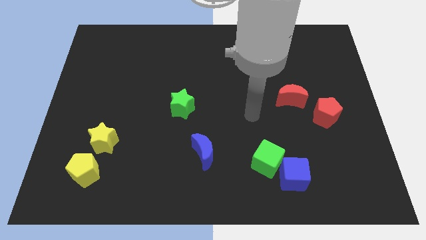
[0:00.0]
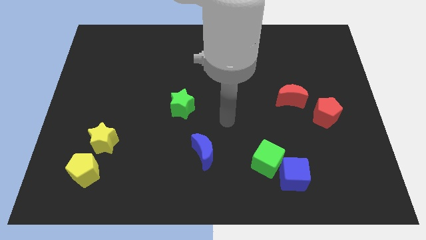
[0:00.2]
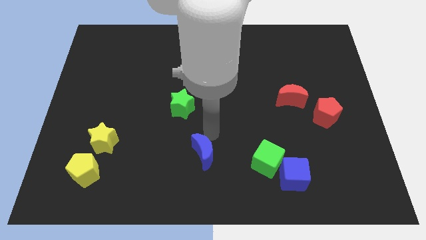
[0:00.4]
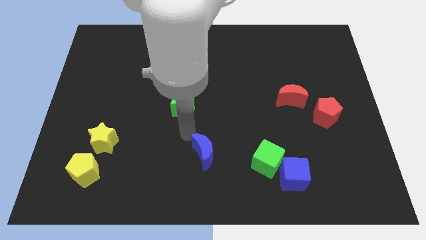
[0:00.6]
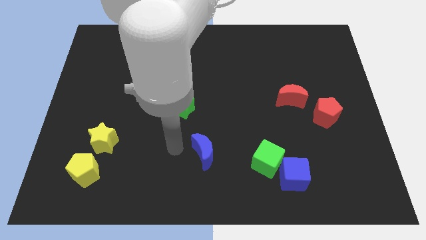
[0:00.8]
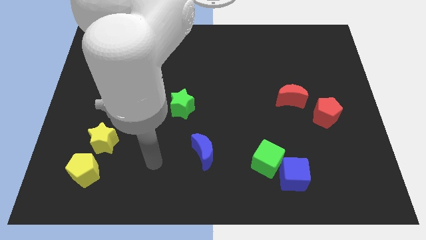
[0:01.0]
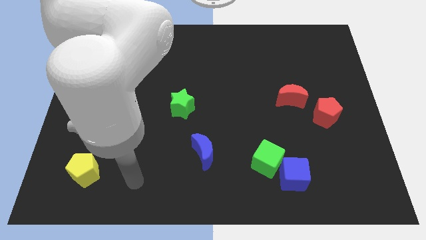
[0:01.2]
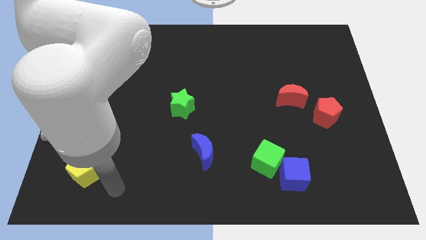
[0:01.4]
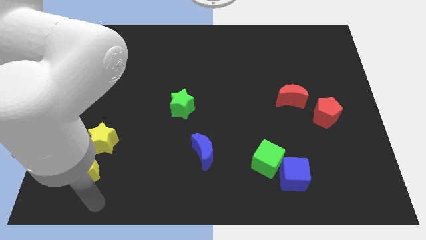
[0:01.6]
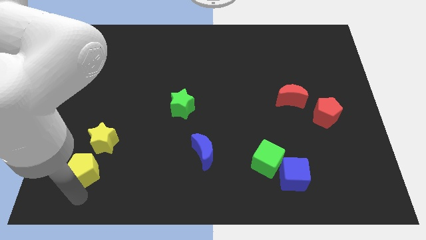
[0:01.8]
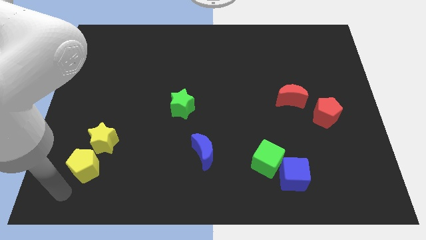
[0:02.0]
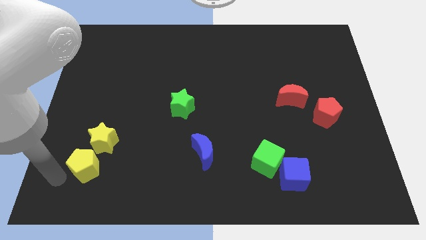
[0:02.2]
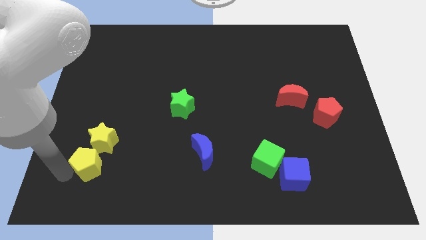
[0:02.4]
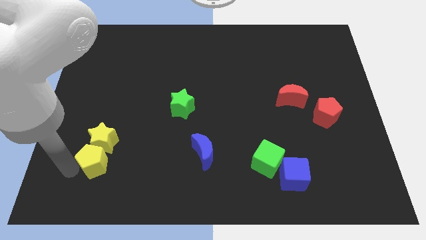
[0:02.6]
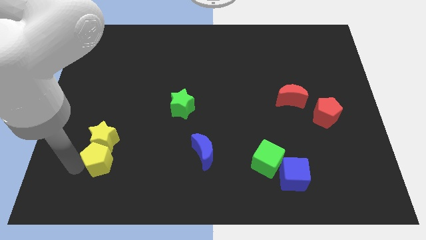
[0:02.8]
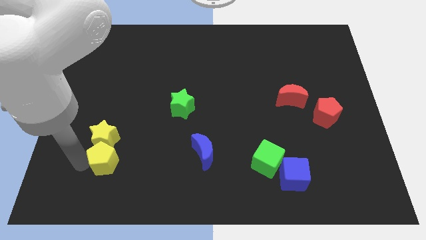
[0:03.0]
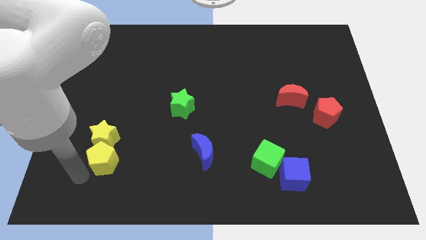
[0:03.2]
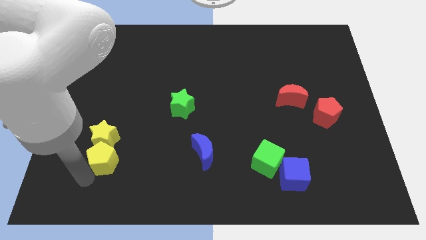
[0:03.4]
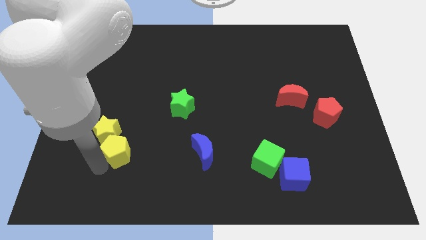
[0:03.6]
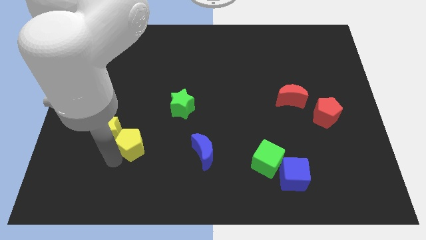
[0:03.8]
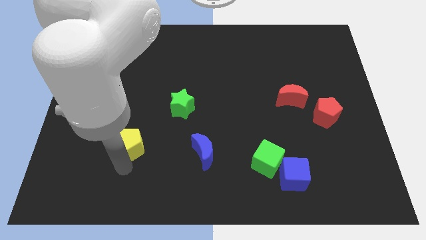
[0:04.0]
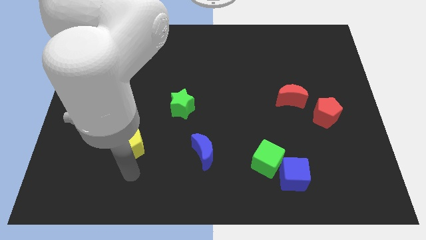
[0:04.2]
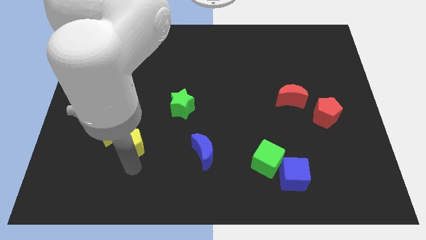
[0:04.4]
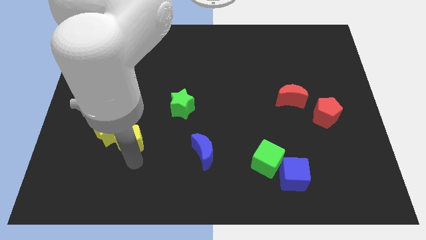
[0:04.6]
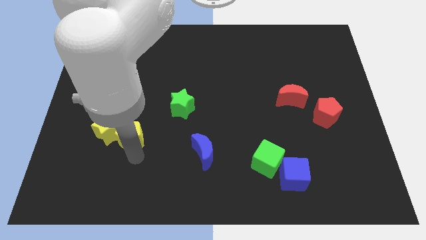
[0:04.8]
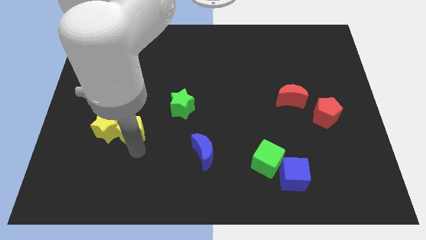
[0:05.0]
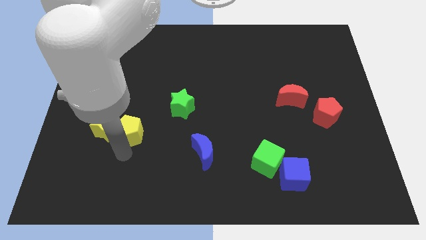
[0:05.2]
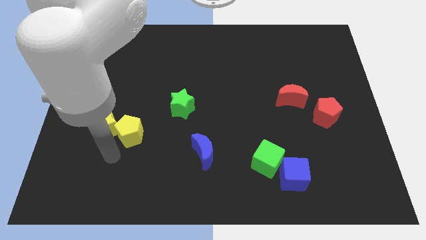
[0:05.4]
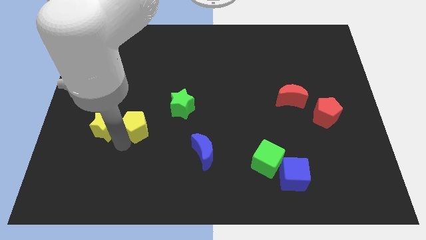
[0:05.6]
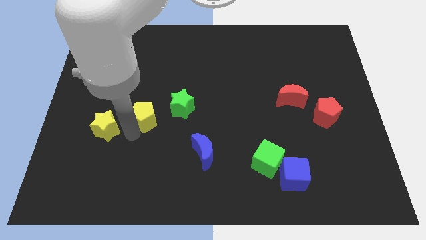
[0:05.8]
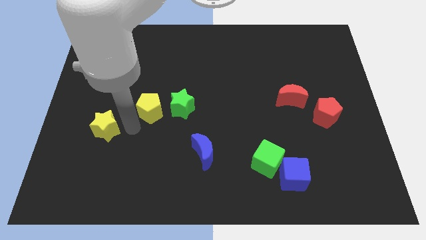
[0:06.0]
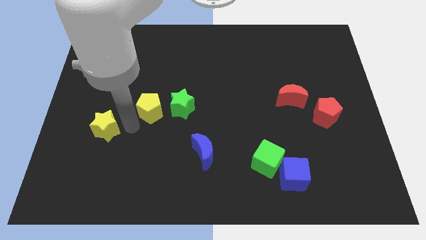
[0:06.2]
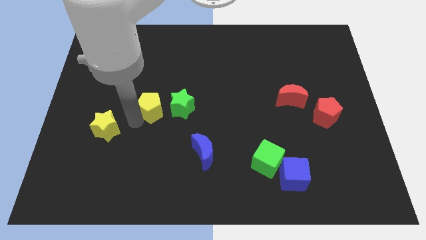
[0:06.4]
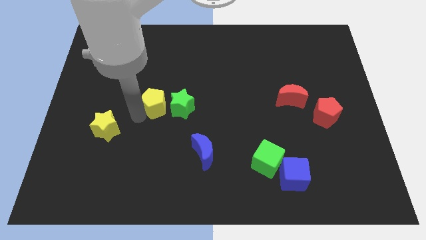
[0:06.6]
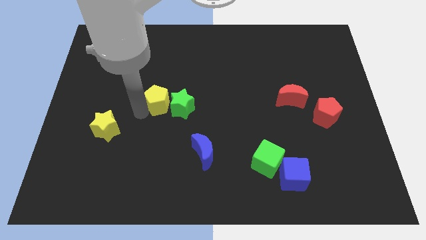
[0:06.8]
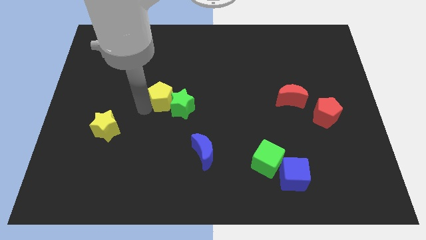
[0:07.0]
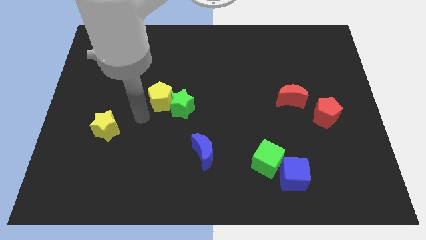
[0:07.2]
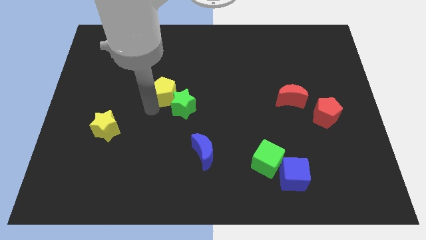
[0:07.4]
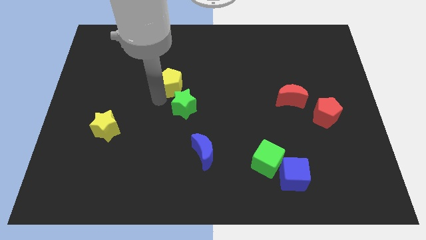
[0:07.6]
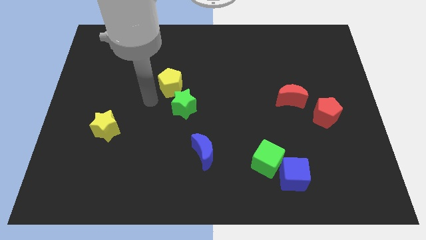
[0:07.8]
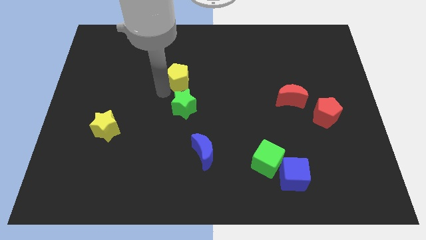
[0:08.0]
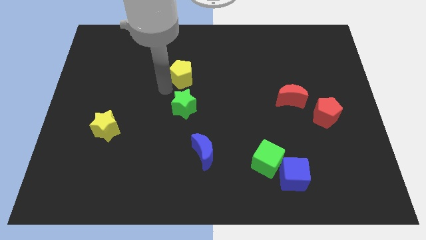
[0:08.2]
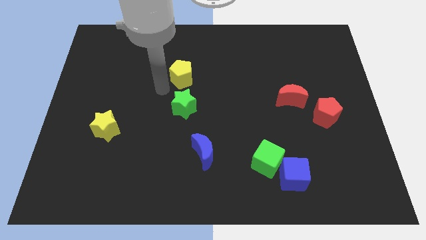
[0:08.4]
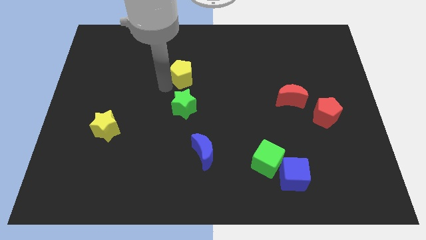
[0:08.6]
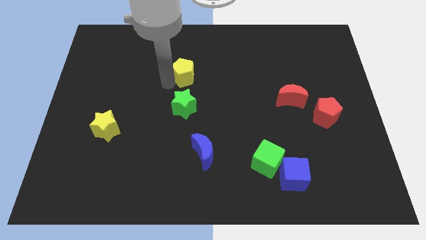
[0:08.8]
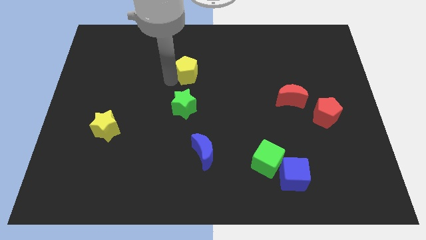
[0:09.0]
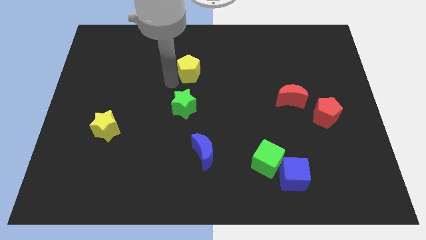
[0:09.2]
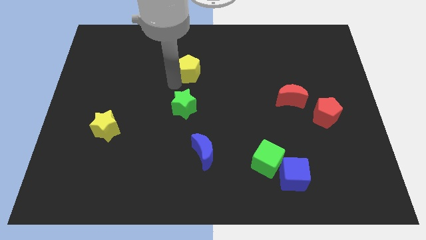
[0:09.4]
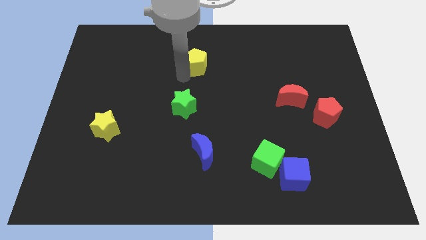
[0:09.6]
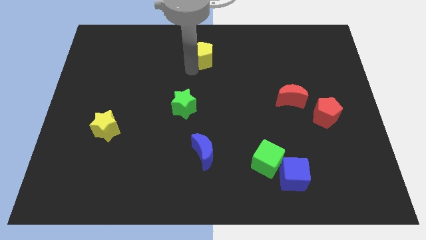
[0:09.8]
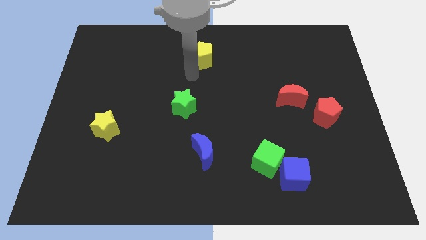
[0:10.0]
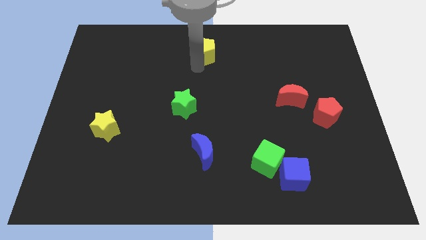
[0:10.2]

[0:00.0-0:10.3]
move the yellow pentagon to the top side

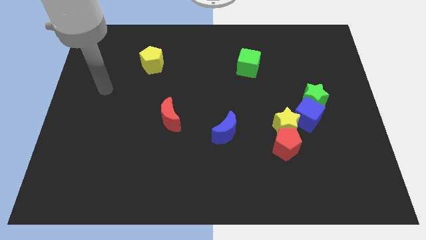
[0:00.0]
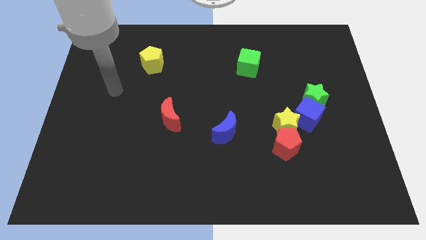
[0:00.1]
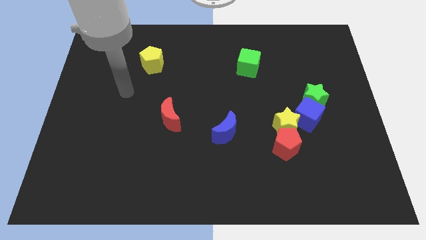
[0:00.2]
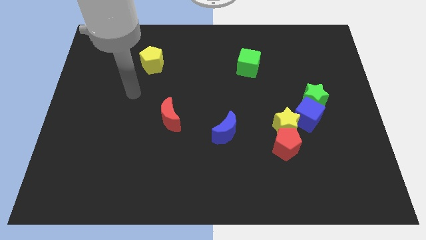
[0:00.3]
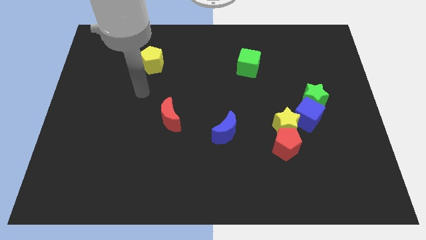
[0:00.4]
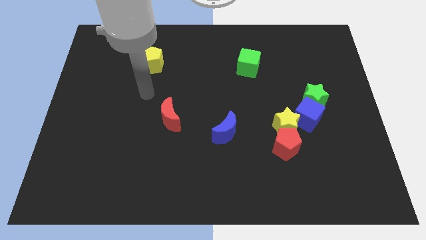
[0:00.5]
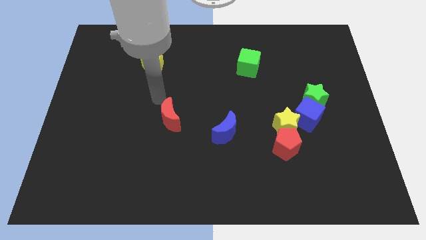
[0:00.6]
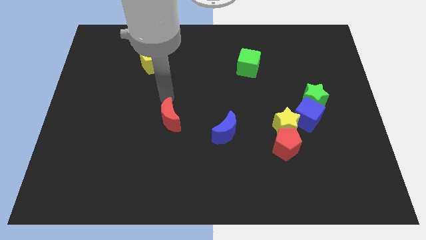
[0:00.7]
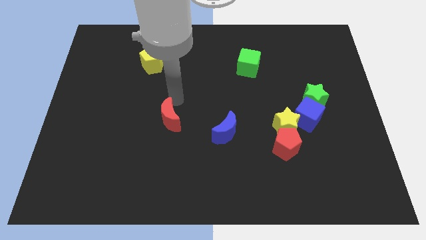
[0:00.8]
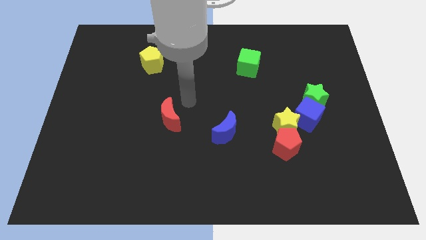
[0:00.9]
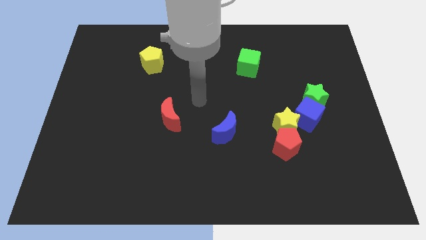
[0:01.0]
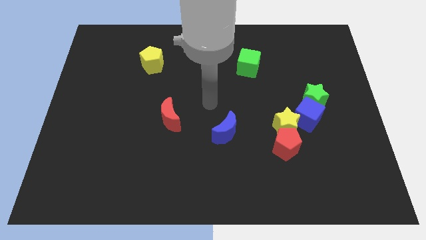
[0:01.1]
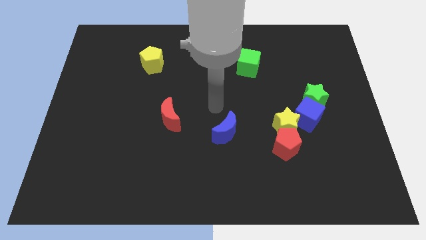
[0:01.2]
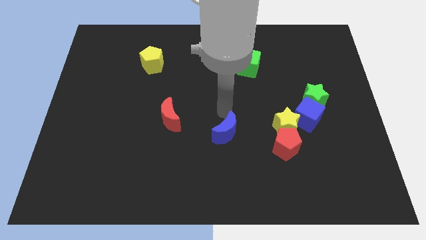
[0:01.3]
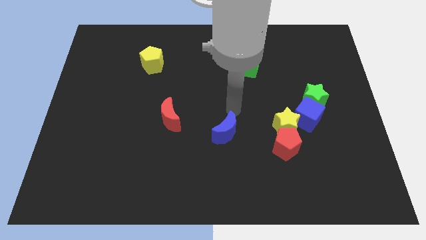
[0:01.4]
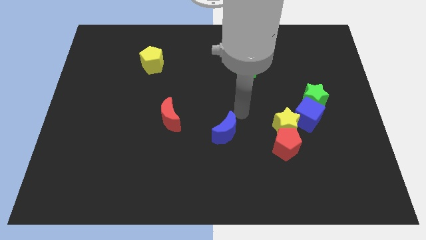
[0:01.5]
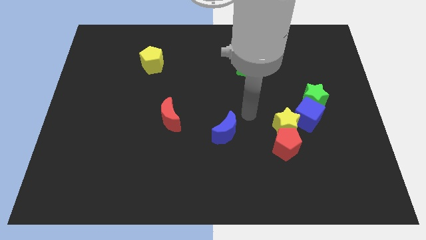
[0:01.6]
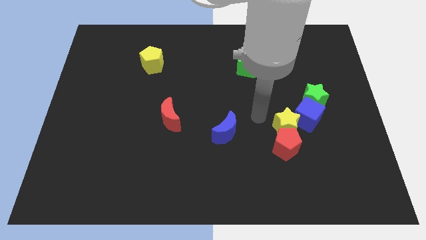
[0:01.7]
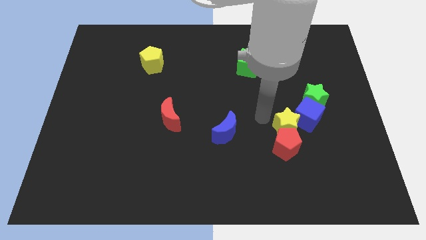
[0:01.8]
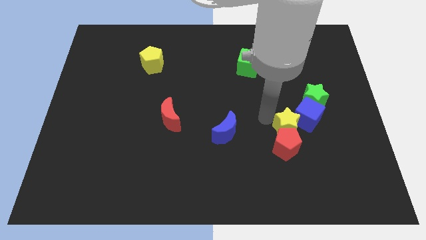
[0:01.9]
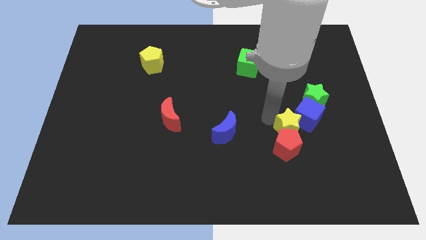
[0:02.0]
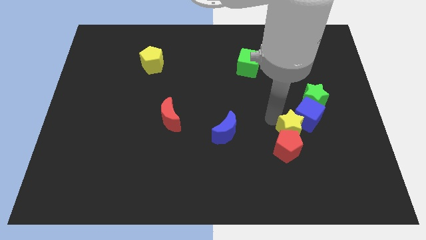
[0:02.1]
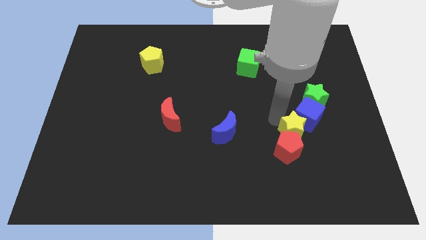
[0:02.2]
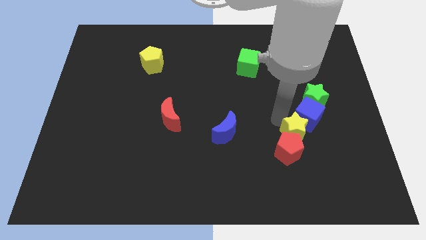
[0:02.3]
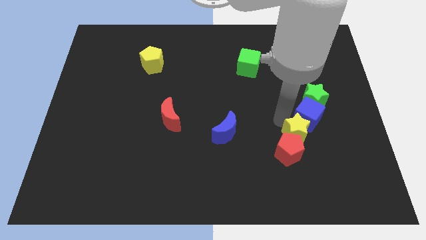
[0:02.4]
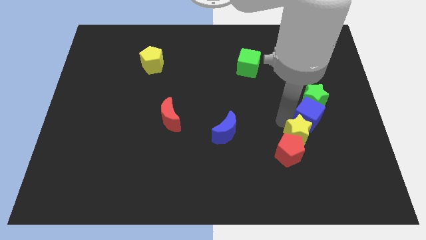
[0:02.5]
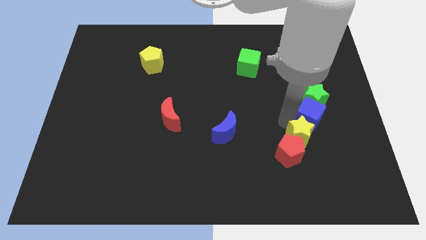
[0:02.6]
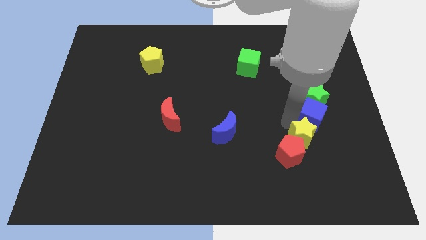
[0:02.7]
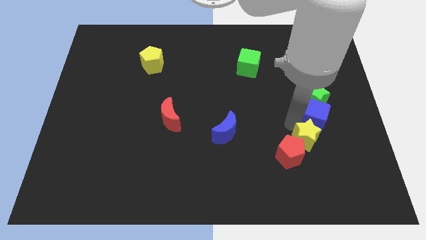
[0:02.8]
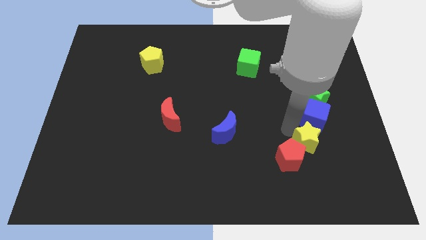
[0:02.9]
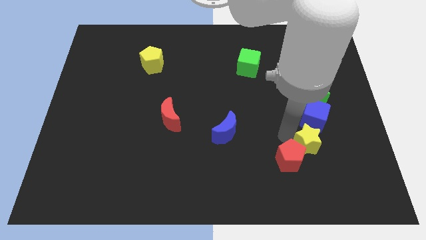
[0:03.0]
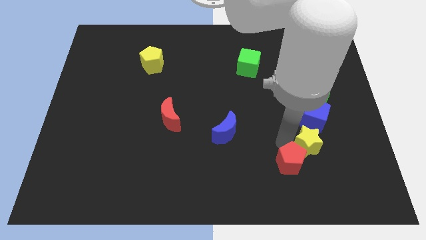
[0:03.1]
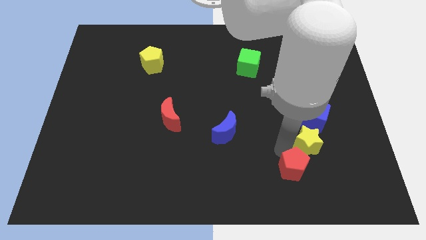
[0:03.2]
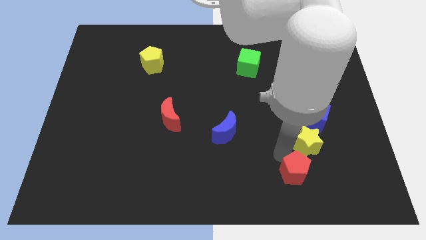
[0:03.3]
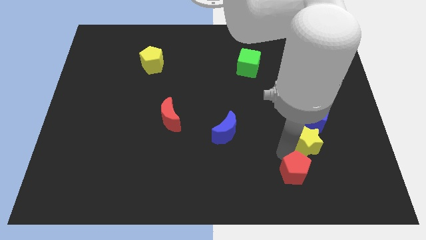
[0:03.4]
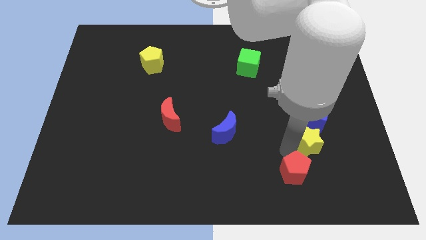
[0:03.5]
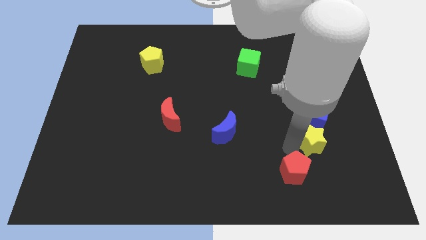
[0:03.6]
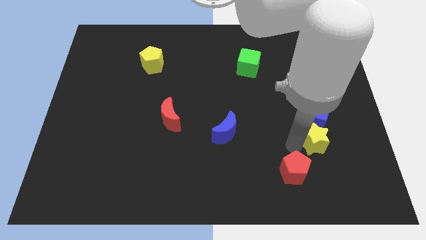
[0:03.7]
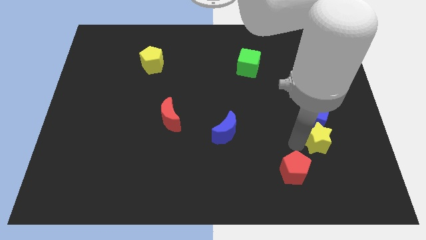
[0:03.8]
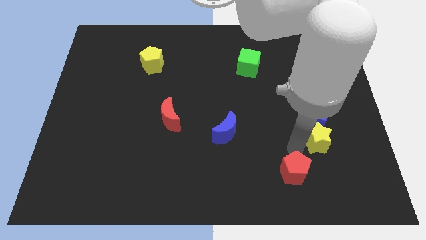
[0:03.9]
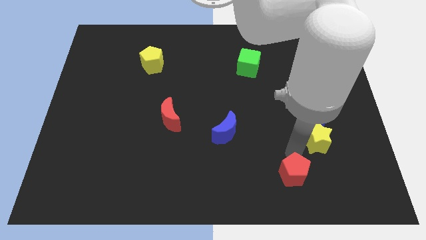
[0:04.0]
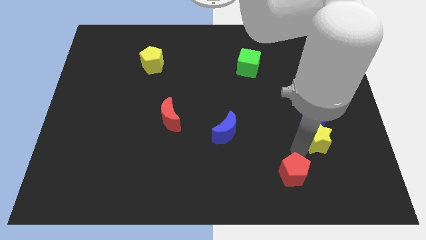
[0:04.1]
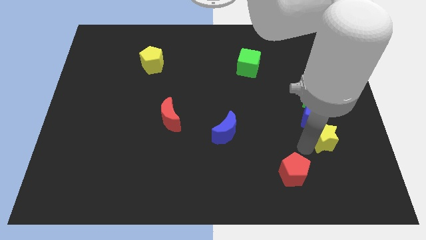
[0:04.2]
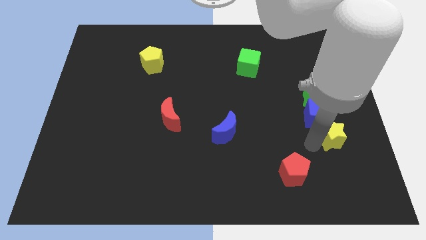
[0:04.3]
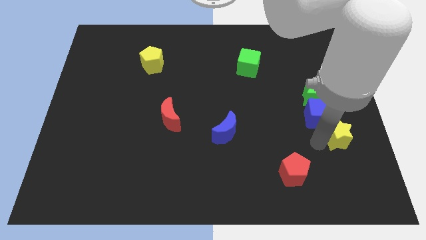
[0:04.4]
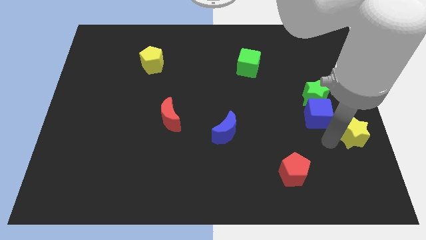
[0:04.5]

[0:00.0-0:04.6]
put the yellow star to the right side
